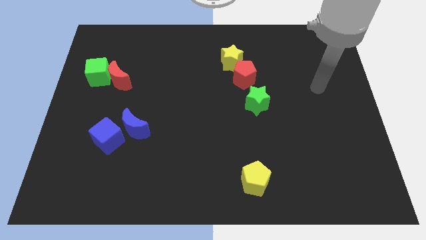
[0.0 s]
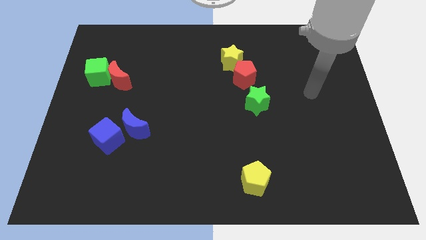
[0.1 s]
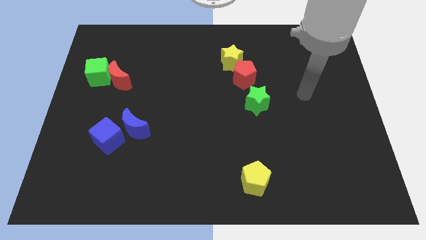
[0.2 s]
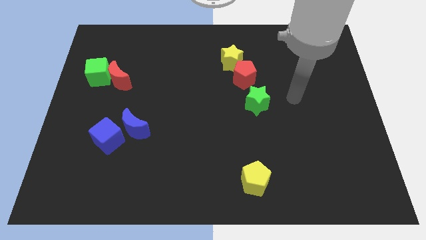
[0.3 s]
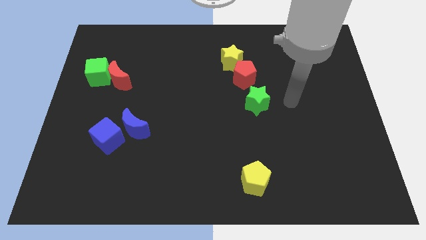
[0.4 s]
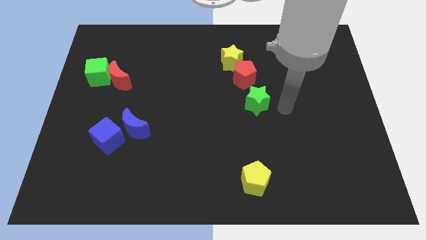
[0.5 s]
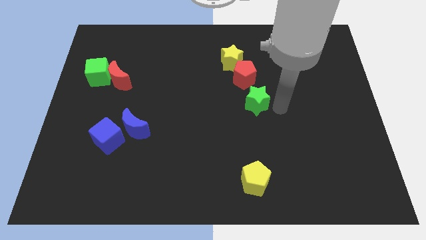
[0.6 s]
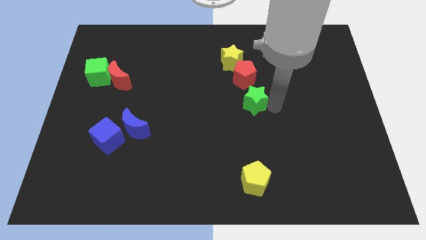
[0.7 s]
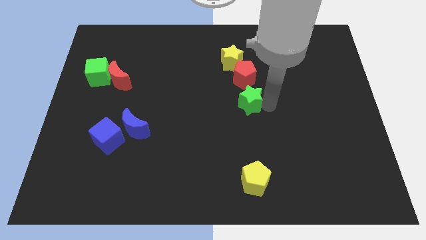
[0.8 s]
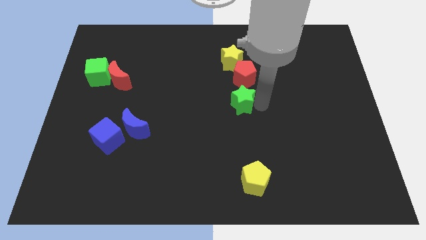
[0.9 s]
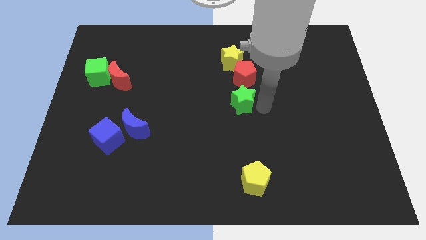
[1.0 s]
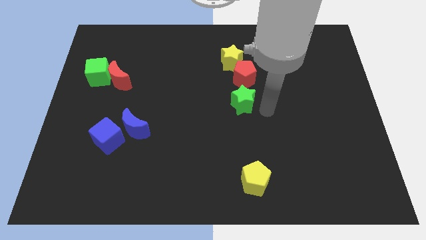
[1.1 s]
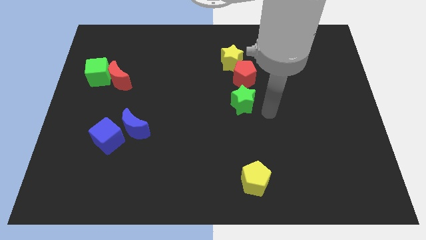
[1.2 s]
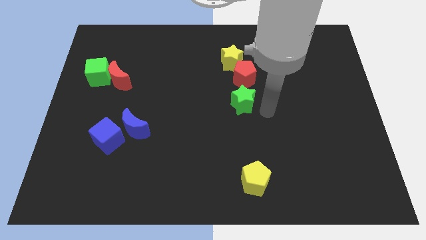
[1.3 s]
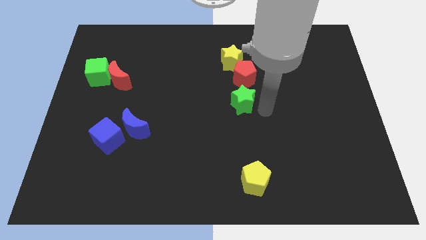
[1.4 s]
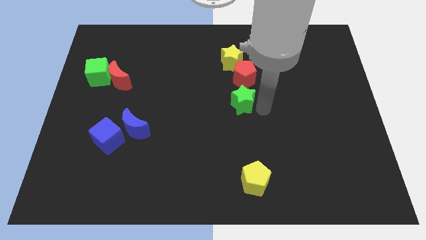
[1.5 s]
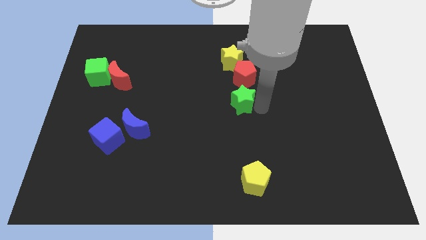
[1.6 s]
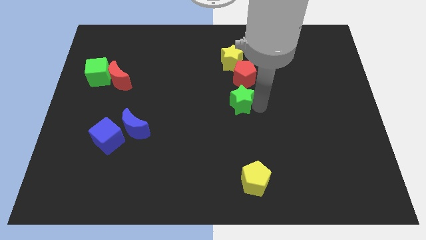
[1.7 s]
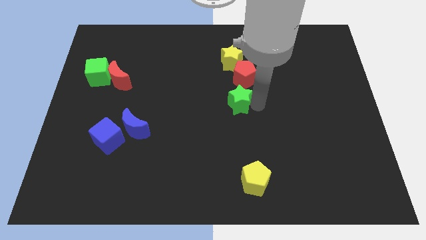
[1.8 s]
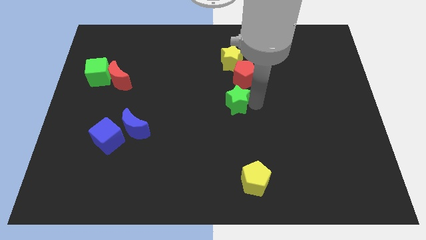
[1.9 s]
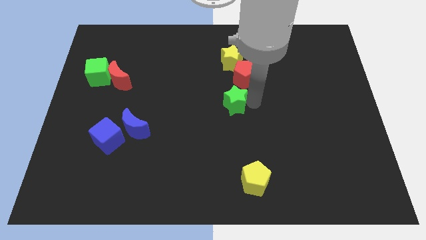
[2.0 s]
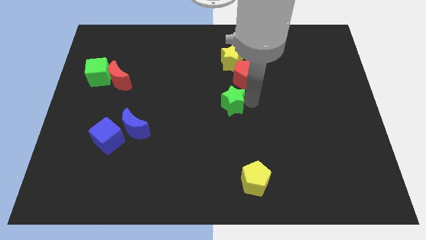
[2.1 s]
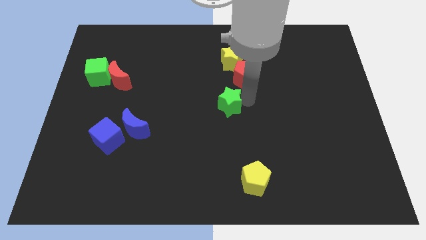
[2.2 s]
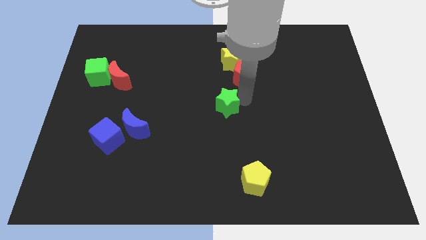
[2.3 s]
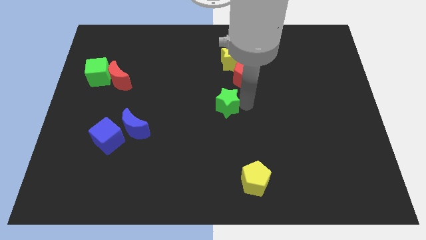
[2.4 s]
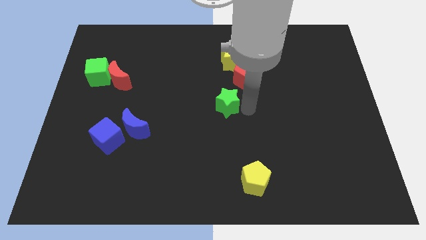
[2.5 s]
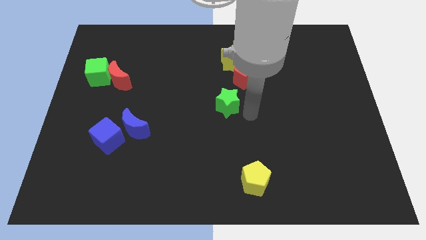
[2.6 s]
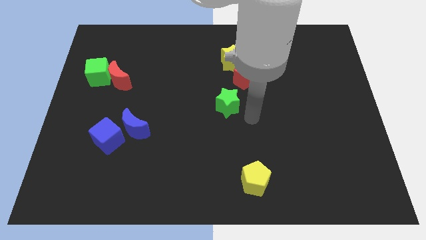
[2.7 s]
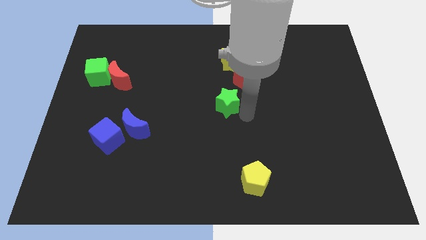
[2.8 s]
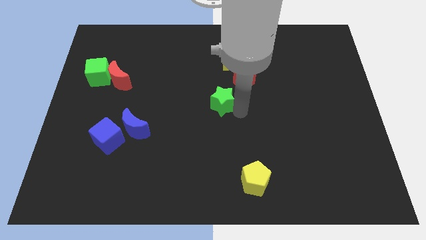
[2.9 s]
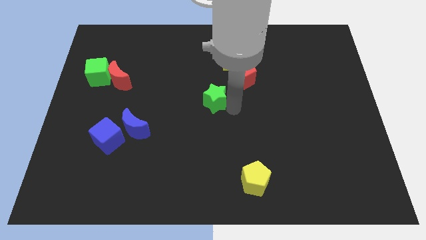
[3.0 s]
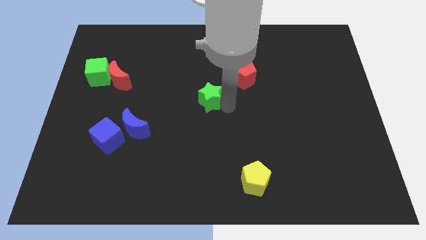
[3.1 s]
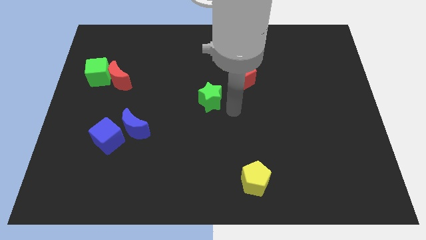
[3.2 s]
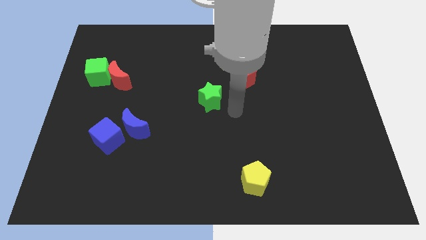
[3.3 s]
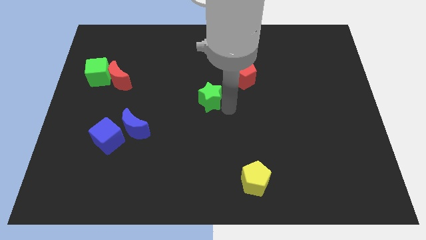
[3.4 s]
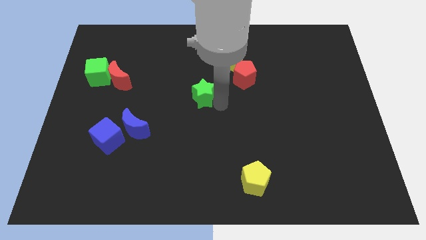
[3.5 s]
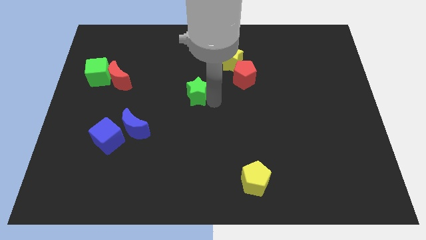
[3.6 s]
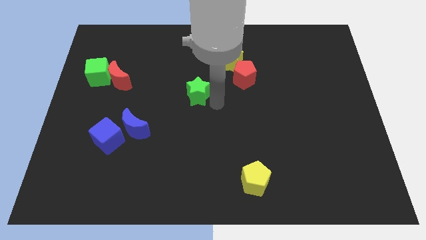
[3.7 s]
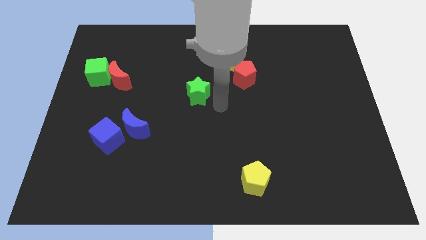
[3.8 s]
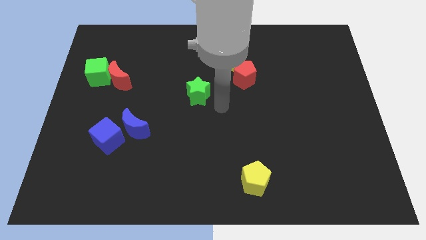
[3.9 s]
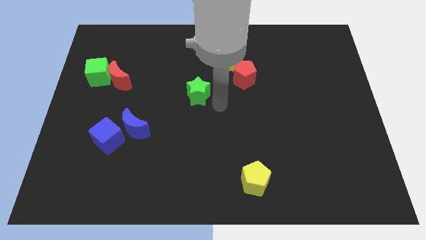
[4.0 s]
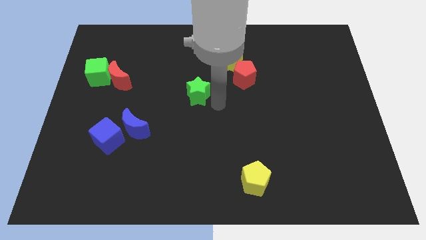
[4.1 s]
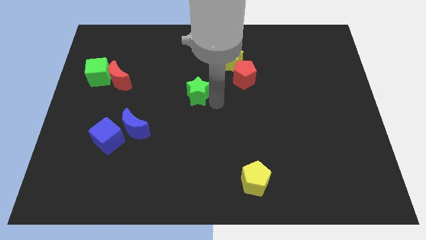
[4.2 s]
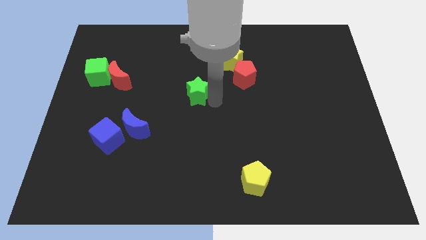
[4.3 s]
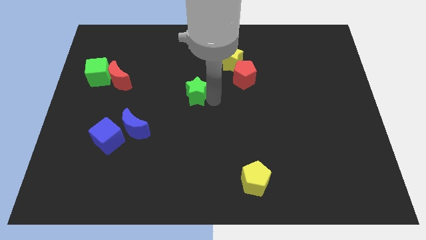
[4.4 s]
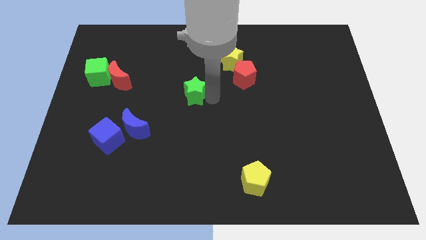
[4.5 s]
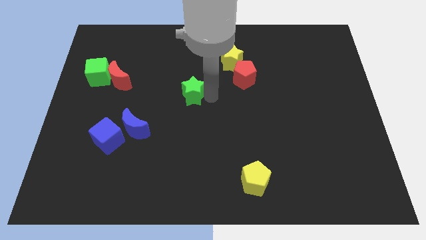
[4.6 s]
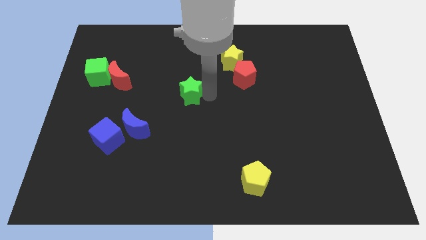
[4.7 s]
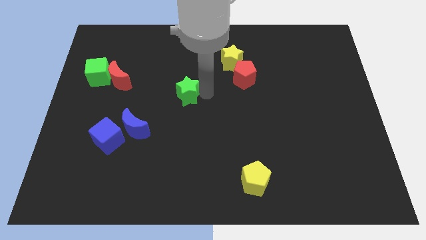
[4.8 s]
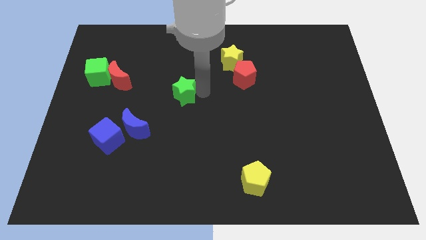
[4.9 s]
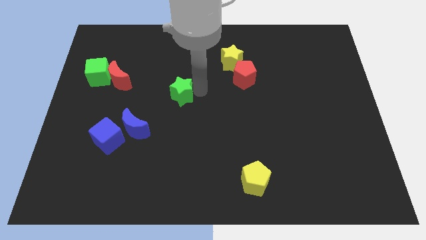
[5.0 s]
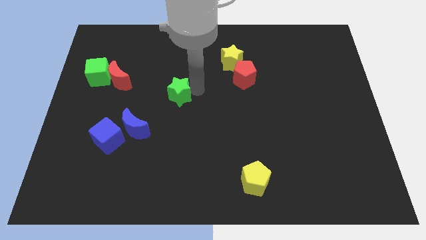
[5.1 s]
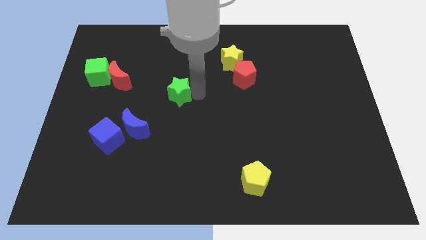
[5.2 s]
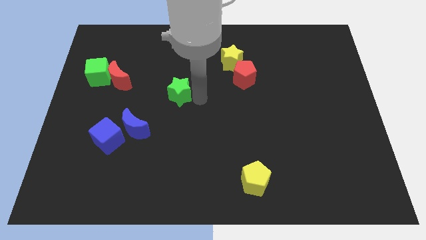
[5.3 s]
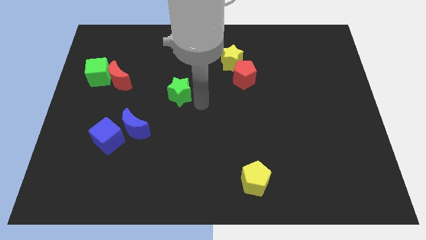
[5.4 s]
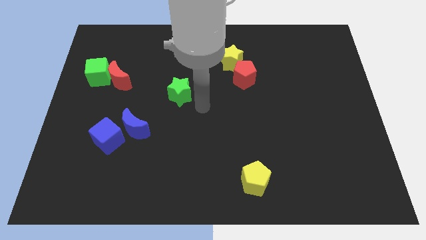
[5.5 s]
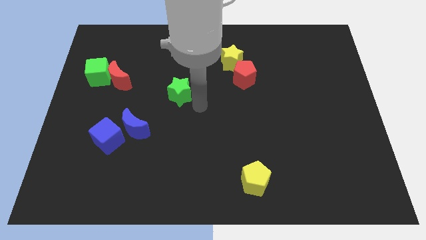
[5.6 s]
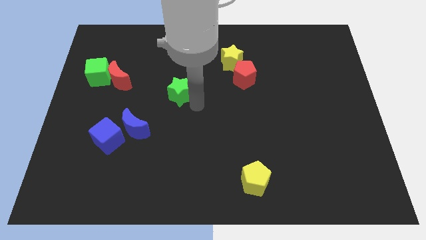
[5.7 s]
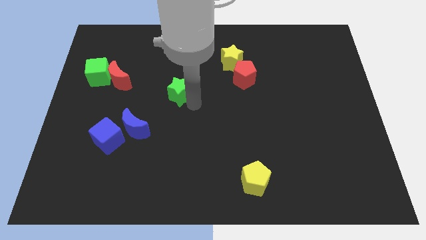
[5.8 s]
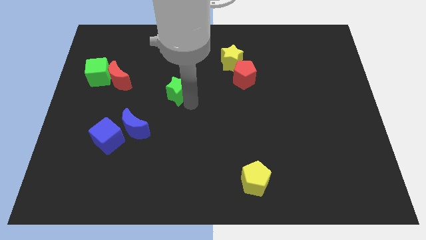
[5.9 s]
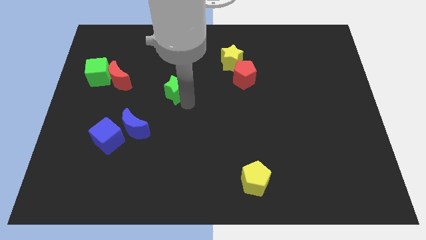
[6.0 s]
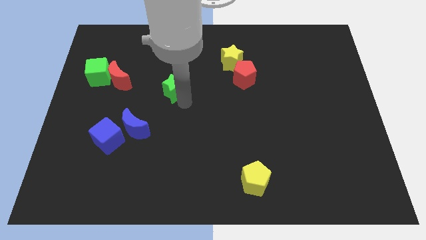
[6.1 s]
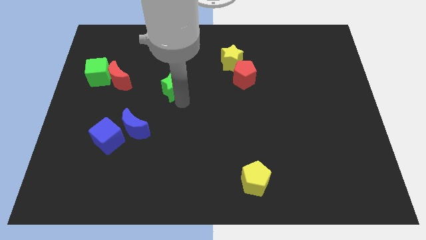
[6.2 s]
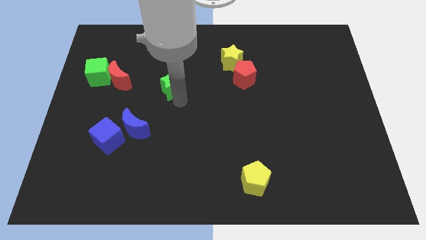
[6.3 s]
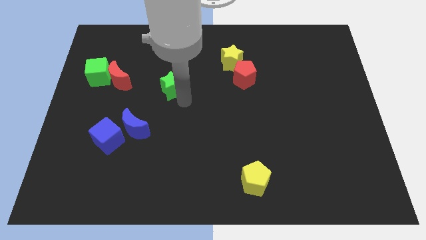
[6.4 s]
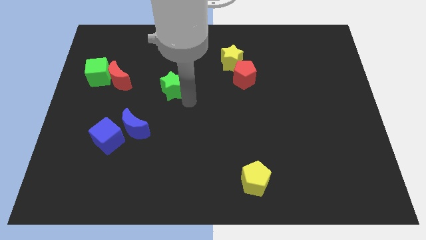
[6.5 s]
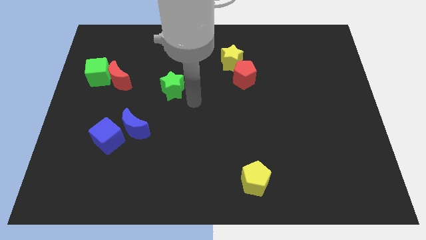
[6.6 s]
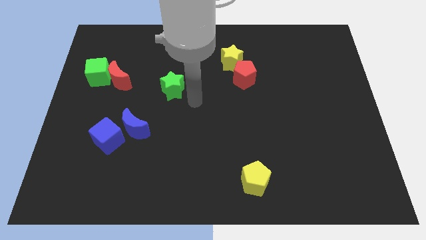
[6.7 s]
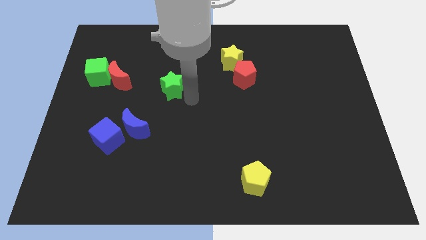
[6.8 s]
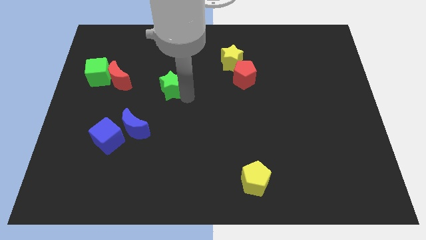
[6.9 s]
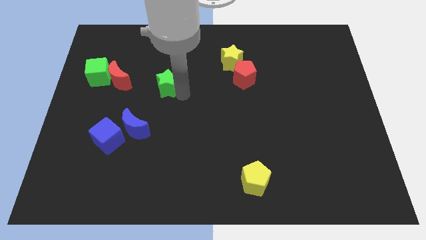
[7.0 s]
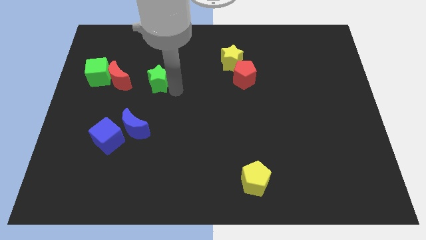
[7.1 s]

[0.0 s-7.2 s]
put the green star just right of the green cube

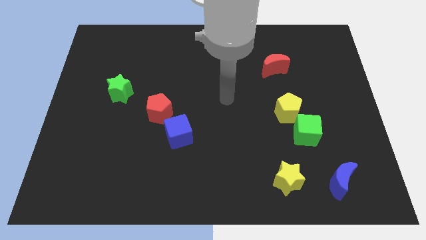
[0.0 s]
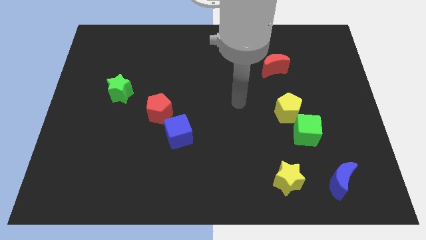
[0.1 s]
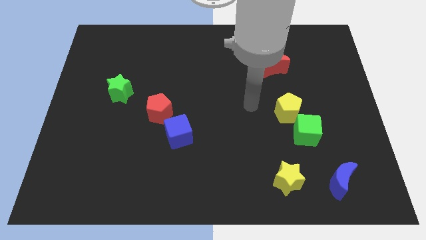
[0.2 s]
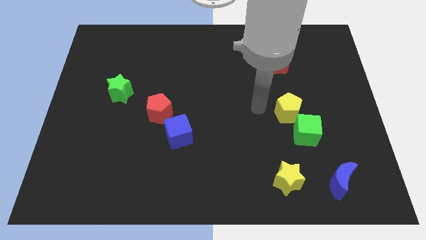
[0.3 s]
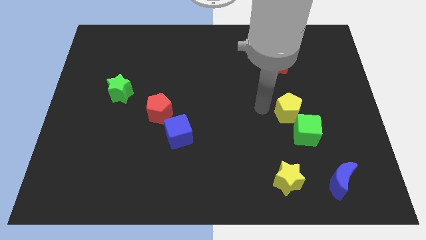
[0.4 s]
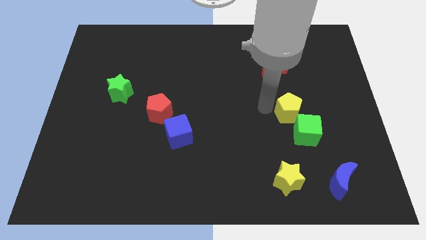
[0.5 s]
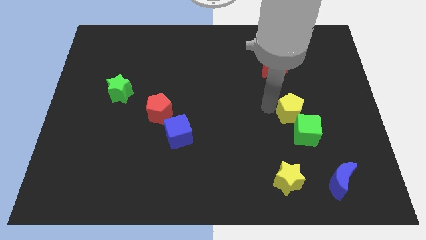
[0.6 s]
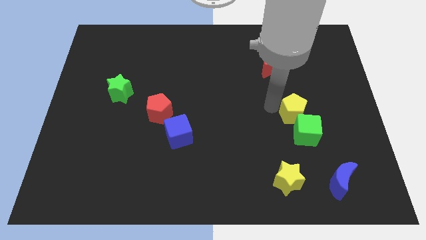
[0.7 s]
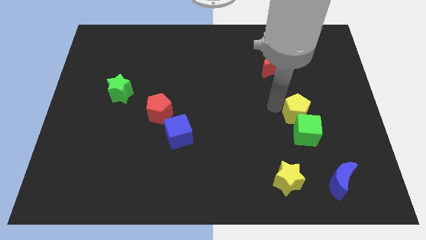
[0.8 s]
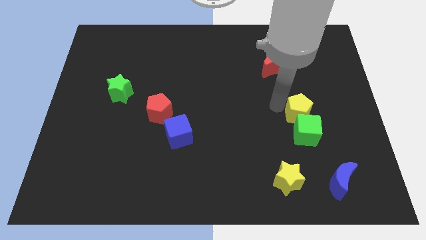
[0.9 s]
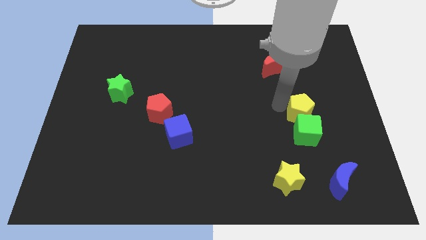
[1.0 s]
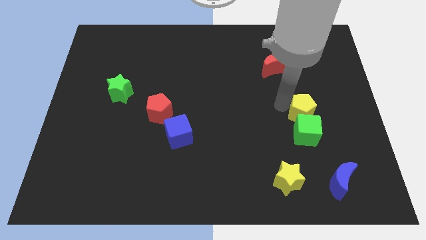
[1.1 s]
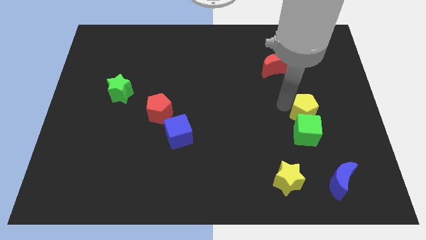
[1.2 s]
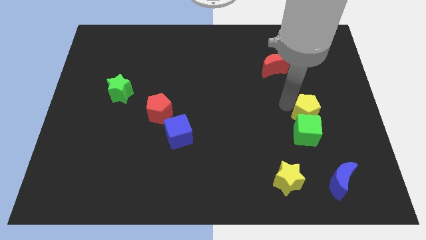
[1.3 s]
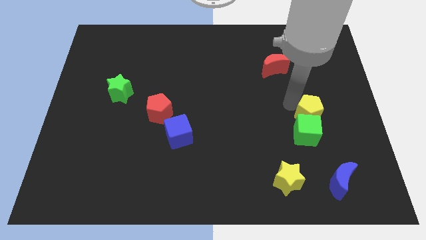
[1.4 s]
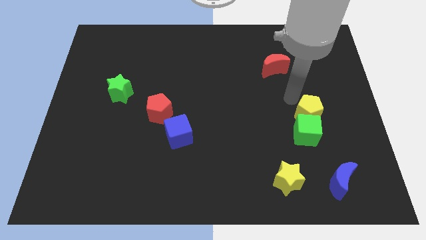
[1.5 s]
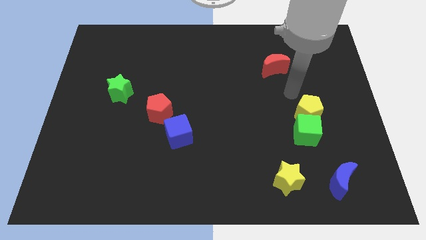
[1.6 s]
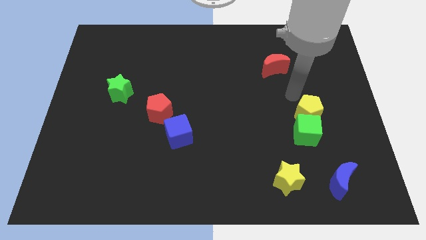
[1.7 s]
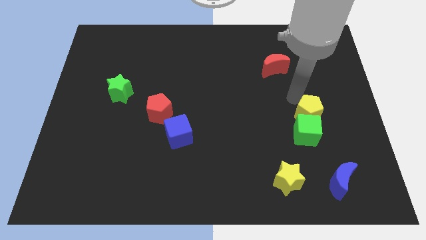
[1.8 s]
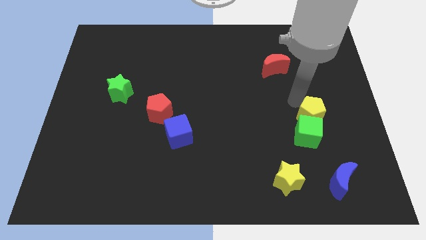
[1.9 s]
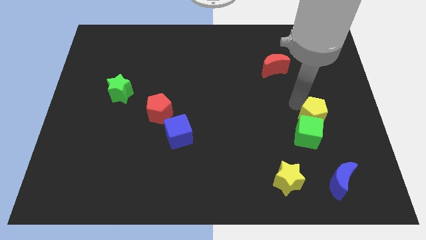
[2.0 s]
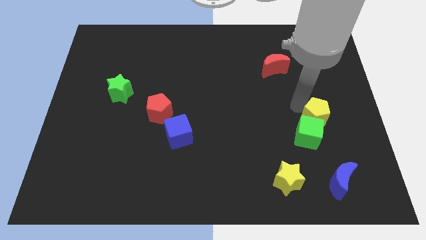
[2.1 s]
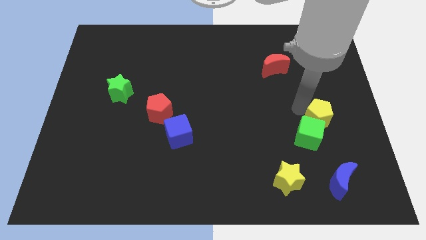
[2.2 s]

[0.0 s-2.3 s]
put the yellow pentagon to the top of the blue moon
